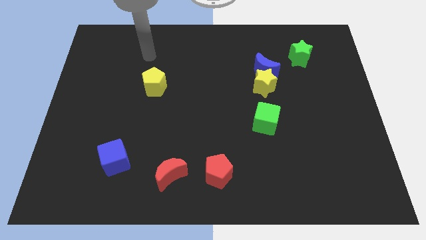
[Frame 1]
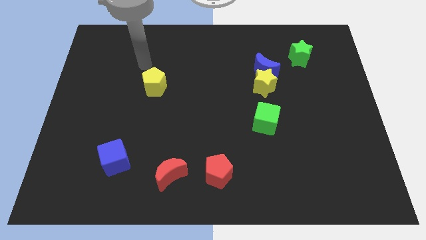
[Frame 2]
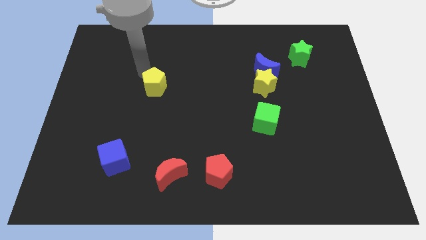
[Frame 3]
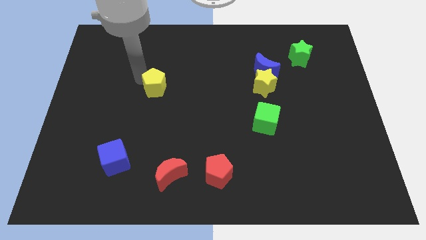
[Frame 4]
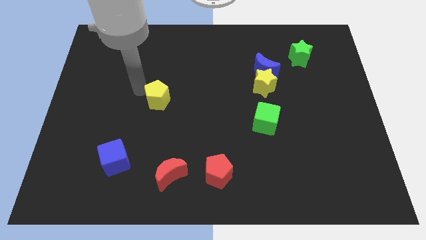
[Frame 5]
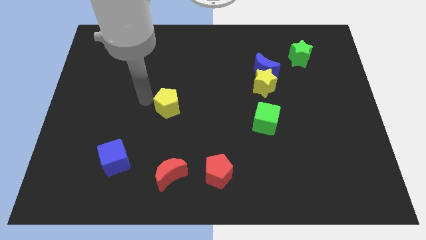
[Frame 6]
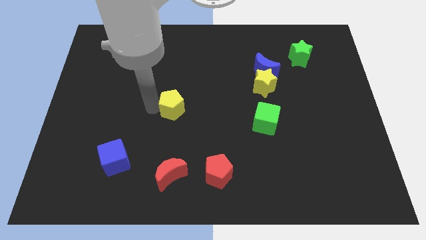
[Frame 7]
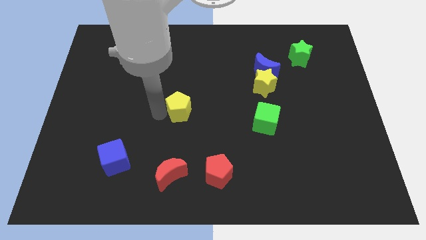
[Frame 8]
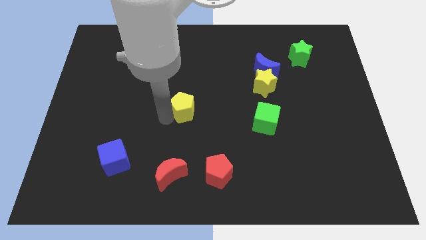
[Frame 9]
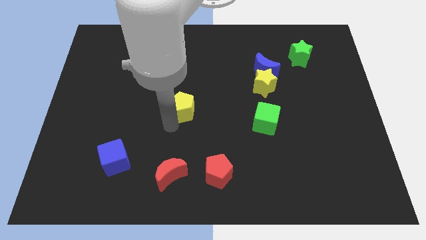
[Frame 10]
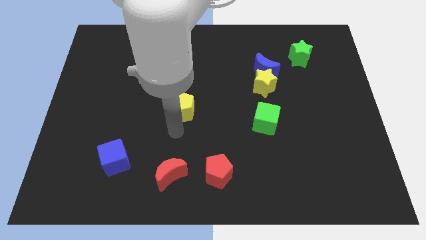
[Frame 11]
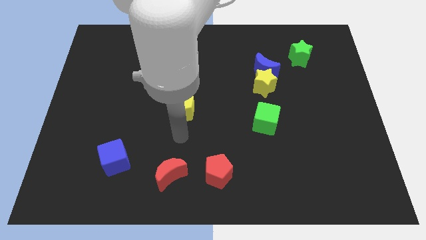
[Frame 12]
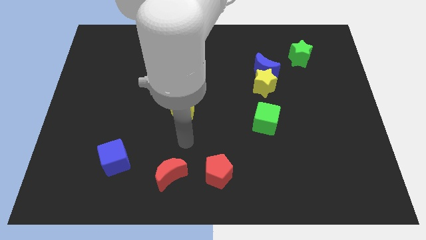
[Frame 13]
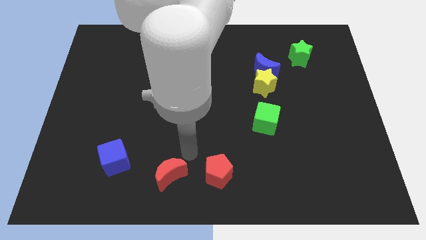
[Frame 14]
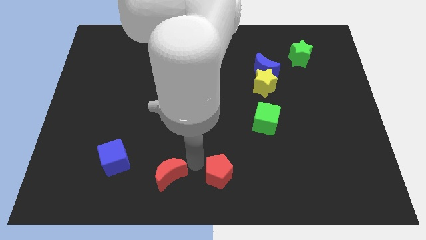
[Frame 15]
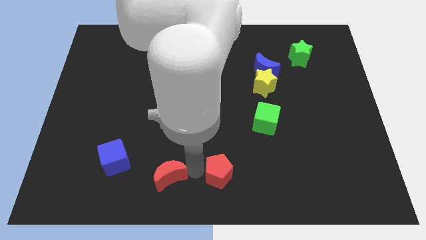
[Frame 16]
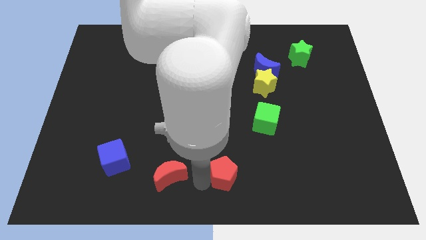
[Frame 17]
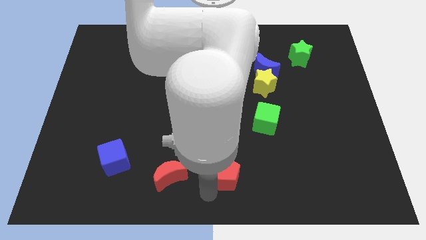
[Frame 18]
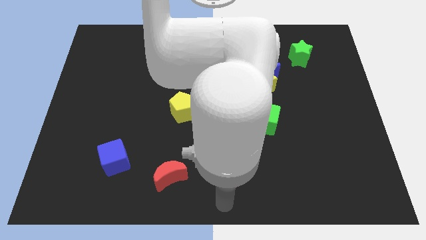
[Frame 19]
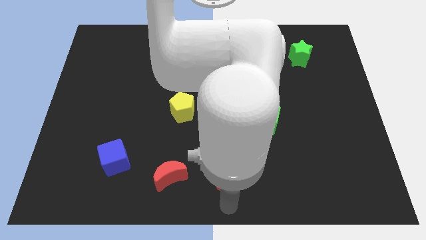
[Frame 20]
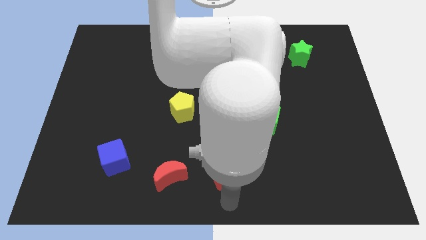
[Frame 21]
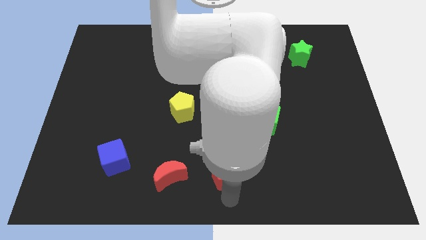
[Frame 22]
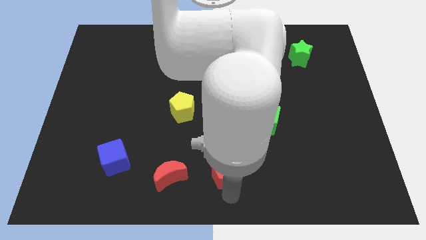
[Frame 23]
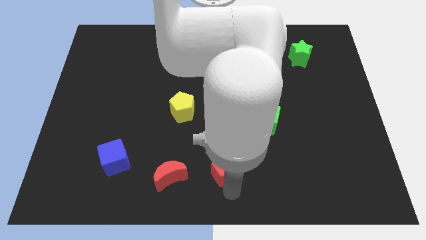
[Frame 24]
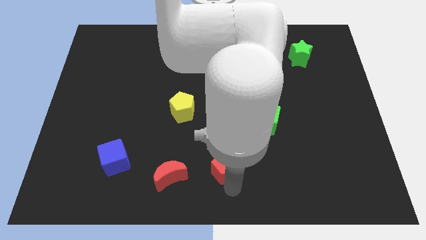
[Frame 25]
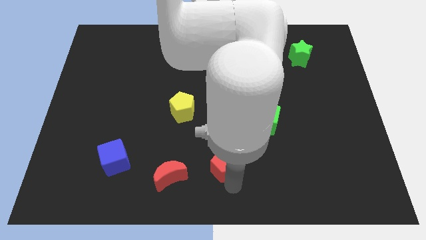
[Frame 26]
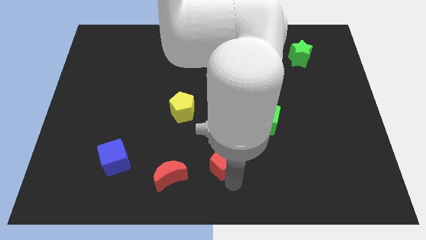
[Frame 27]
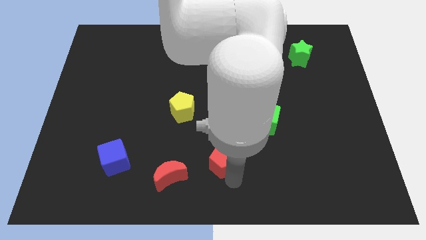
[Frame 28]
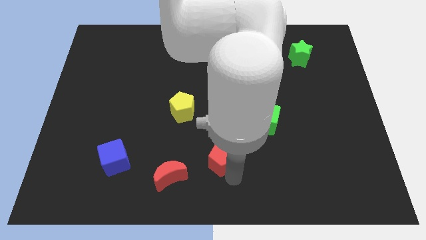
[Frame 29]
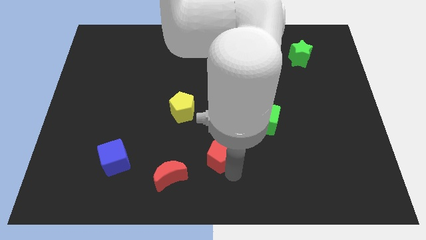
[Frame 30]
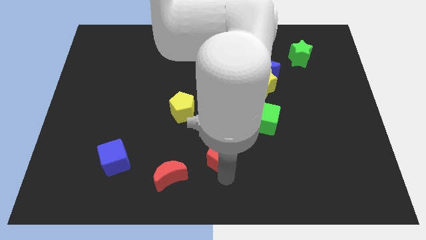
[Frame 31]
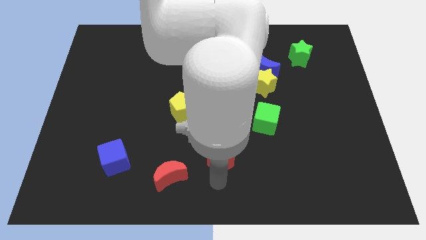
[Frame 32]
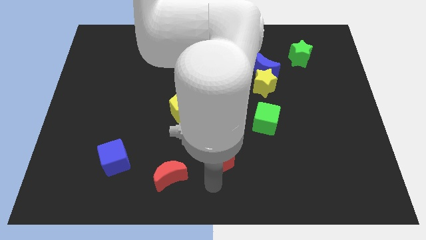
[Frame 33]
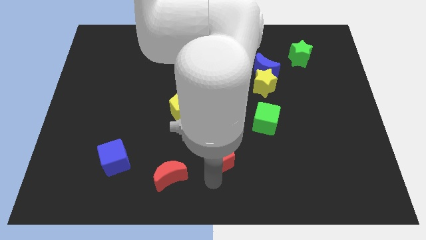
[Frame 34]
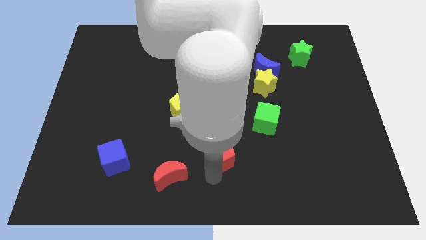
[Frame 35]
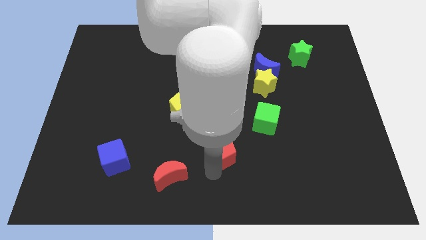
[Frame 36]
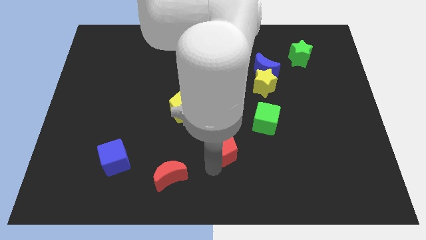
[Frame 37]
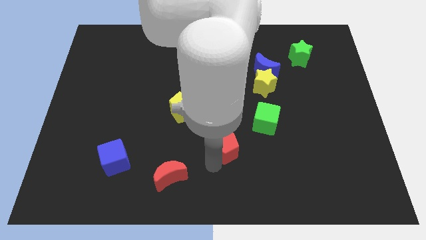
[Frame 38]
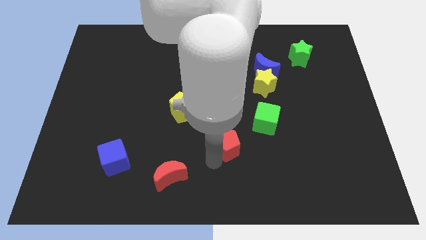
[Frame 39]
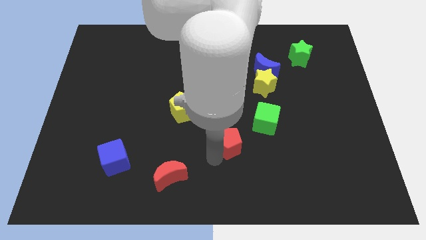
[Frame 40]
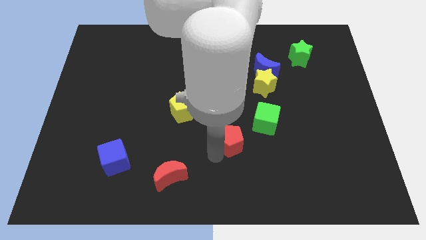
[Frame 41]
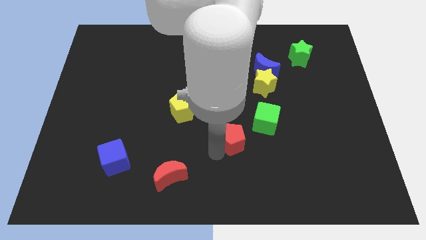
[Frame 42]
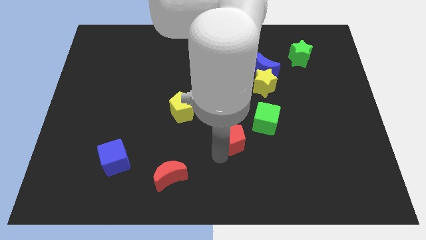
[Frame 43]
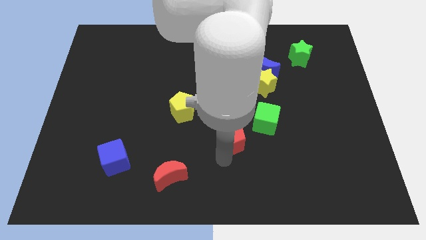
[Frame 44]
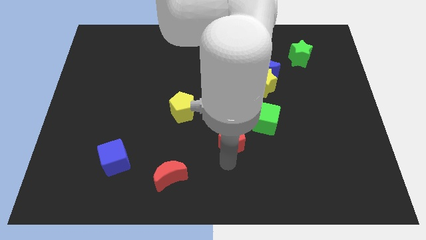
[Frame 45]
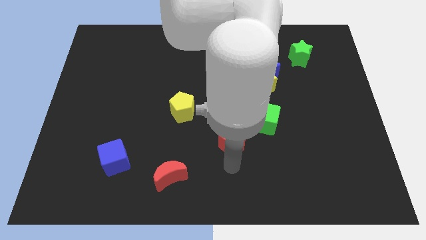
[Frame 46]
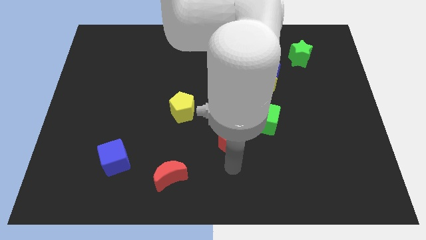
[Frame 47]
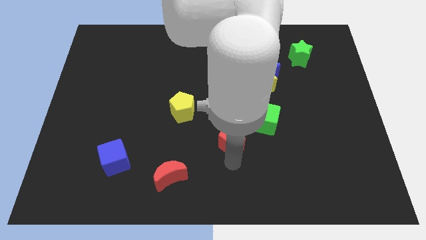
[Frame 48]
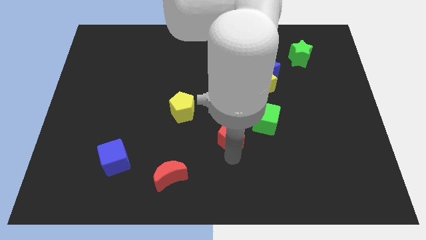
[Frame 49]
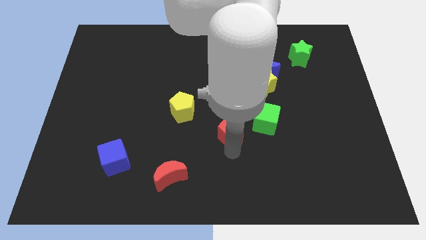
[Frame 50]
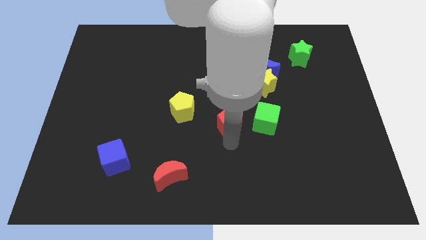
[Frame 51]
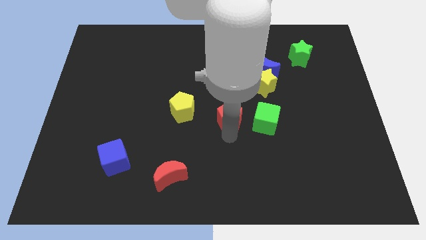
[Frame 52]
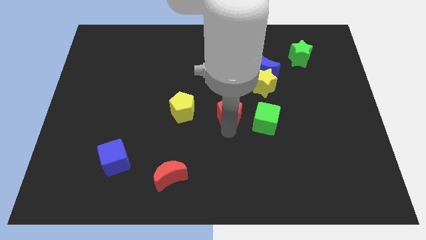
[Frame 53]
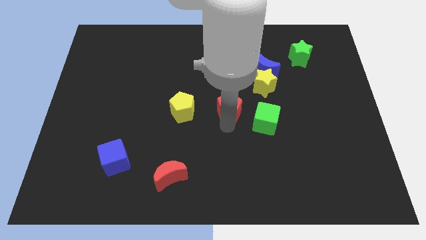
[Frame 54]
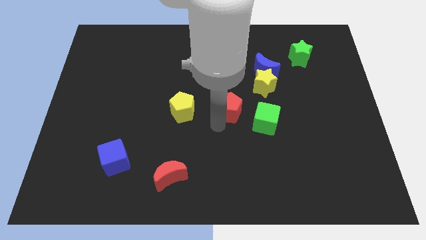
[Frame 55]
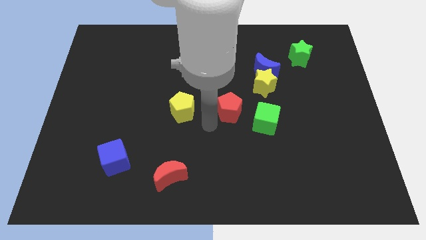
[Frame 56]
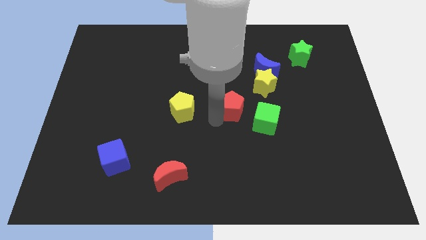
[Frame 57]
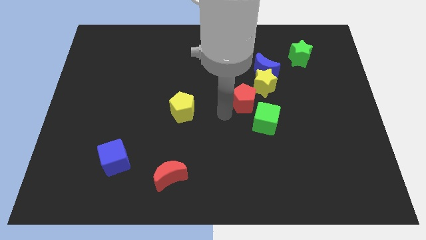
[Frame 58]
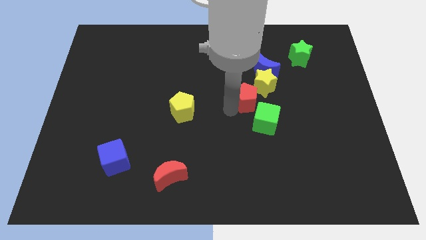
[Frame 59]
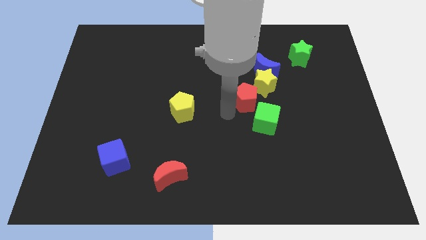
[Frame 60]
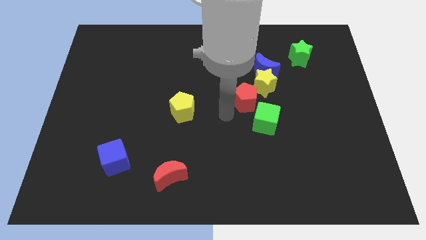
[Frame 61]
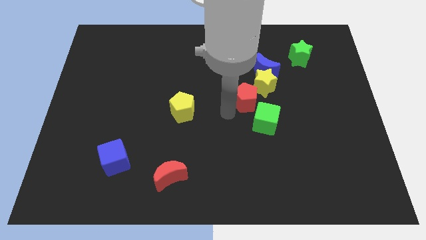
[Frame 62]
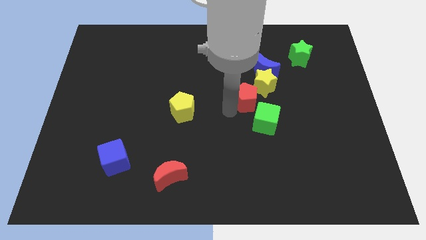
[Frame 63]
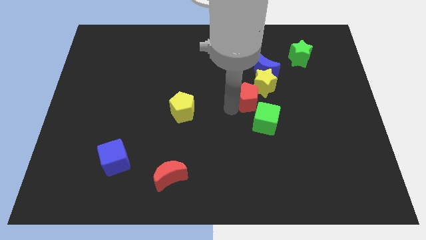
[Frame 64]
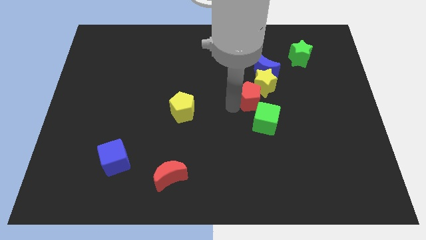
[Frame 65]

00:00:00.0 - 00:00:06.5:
put the red pentagon next to the yellow star

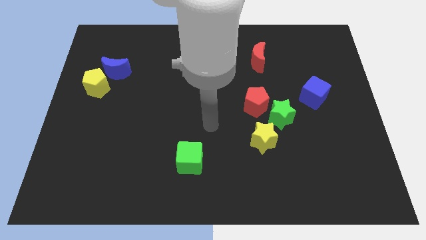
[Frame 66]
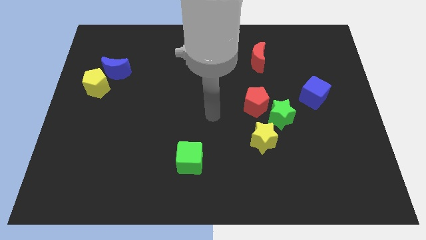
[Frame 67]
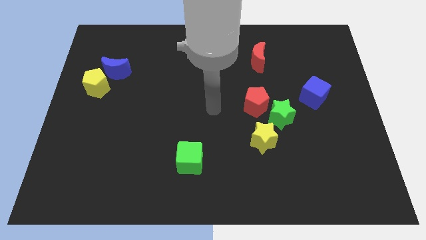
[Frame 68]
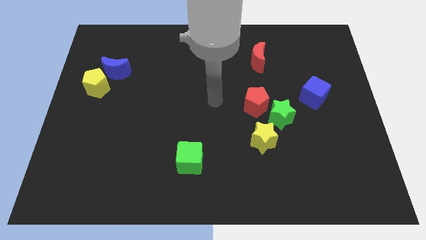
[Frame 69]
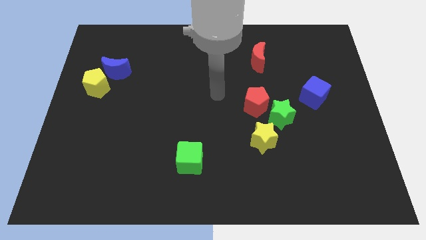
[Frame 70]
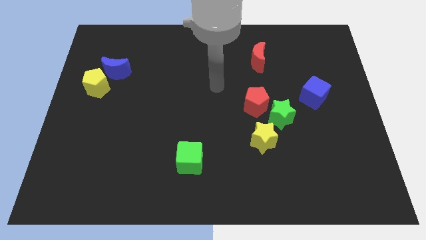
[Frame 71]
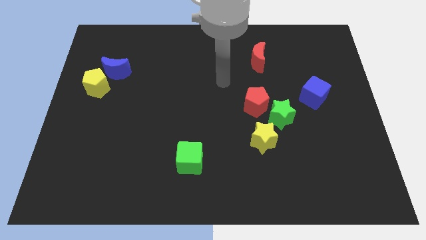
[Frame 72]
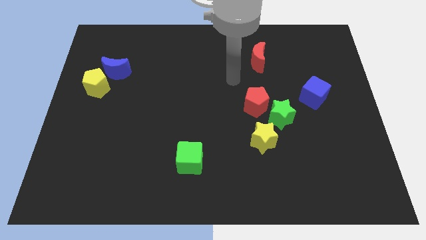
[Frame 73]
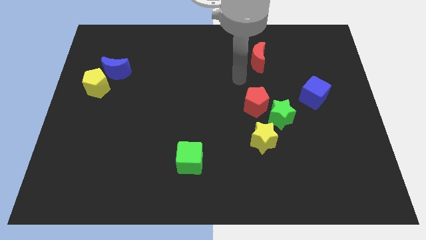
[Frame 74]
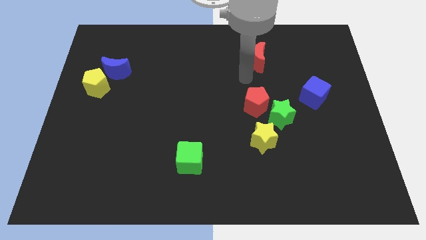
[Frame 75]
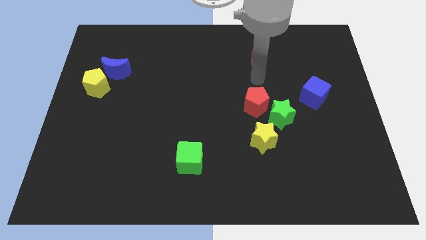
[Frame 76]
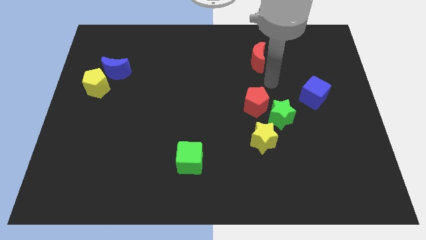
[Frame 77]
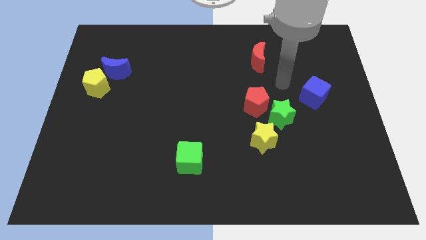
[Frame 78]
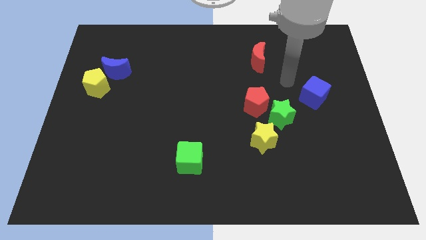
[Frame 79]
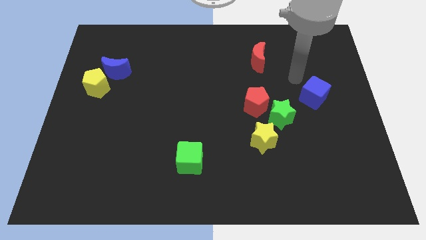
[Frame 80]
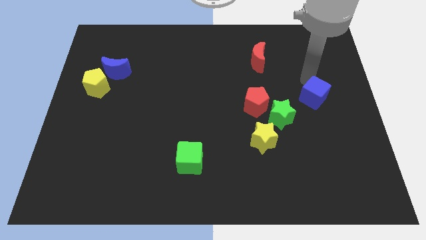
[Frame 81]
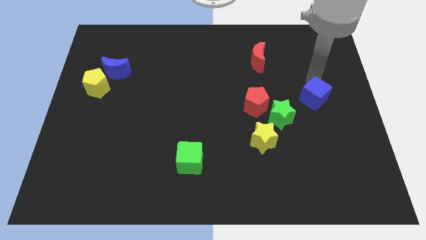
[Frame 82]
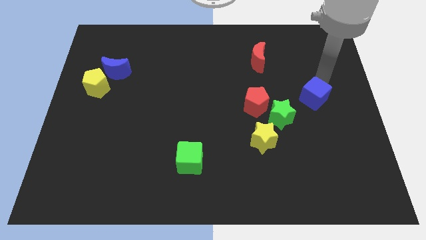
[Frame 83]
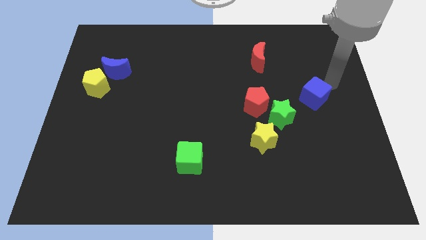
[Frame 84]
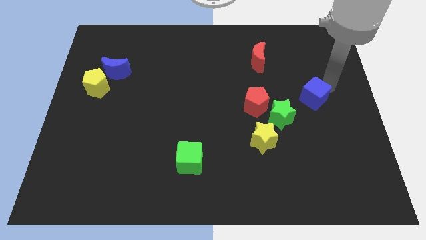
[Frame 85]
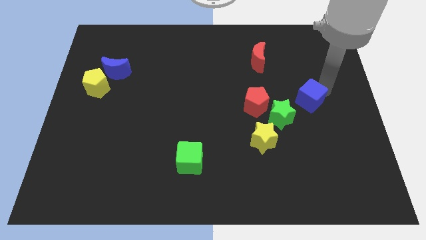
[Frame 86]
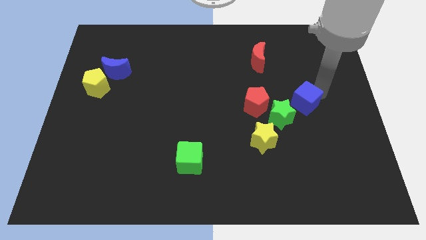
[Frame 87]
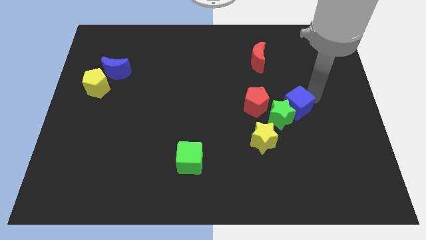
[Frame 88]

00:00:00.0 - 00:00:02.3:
put the blue cube close to the green star
